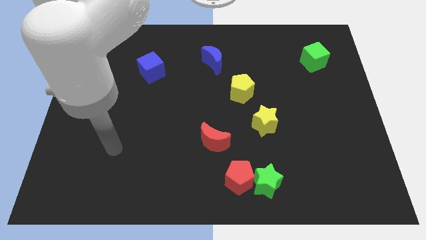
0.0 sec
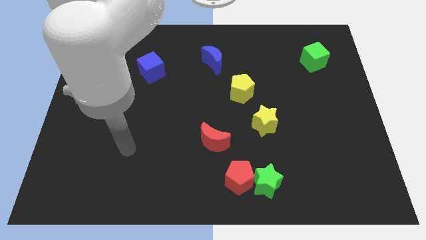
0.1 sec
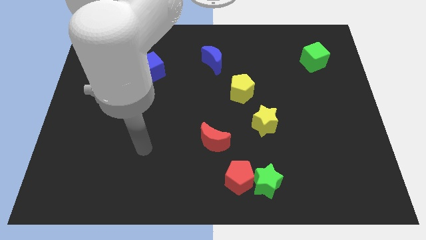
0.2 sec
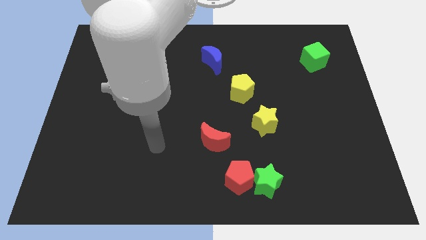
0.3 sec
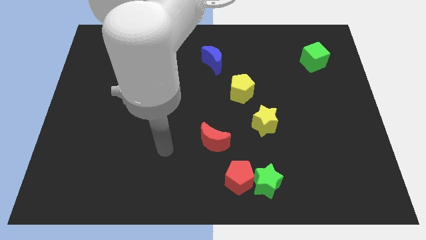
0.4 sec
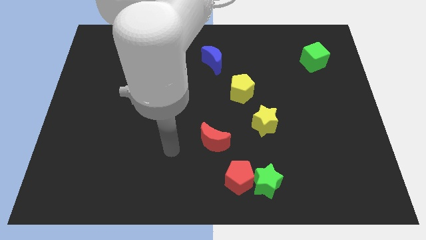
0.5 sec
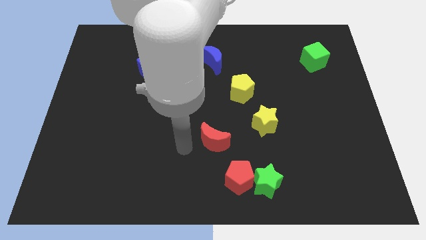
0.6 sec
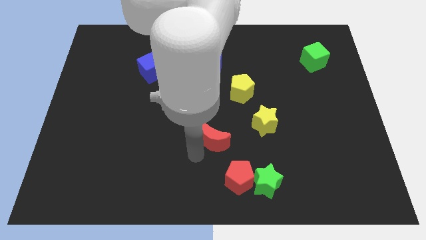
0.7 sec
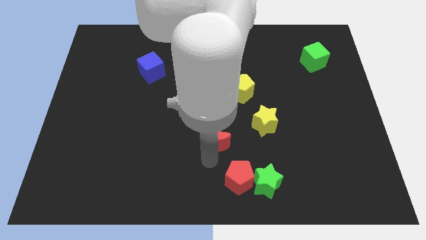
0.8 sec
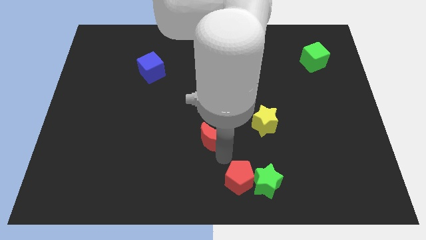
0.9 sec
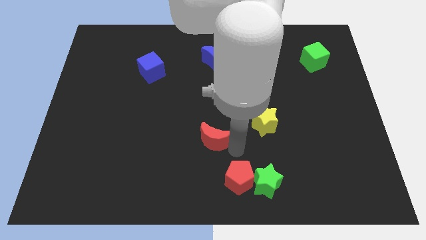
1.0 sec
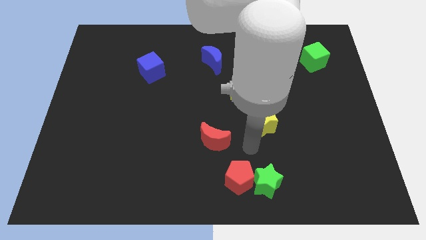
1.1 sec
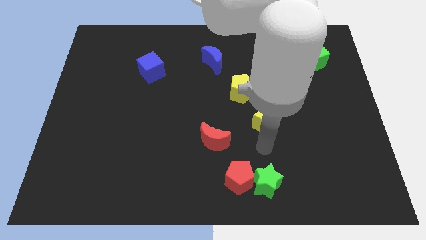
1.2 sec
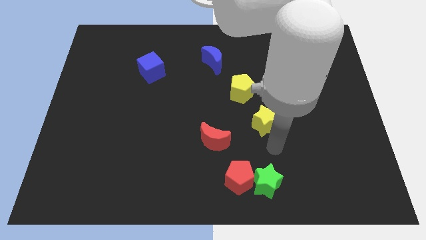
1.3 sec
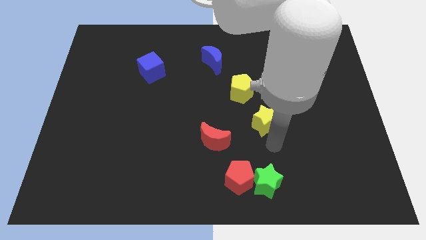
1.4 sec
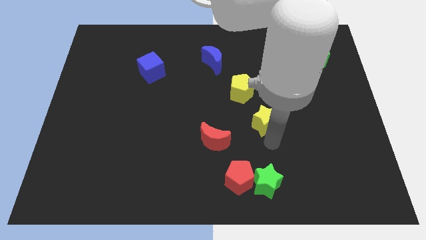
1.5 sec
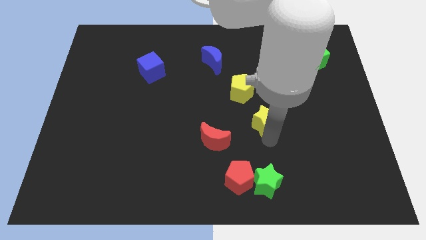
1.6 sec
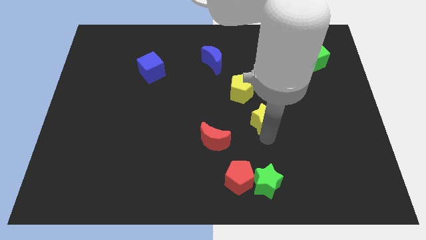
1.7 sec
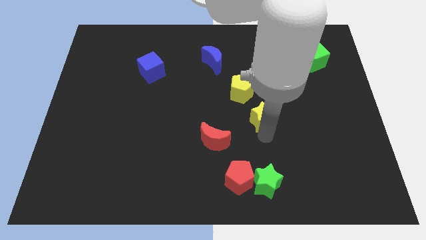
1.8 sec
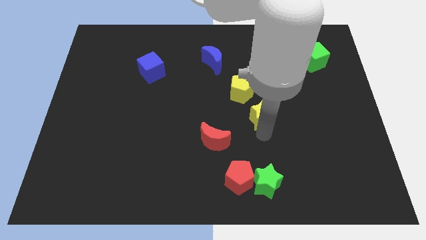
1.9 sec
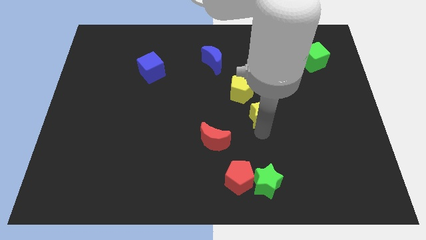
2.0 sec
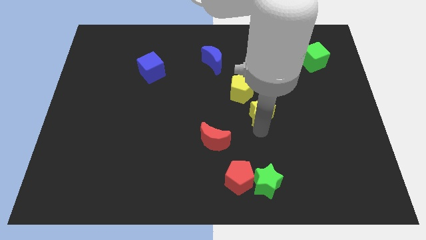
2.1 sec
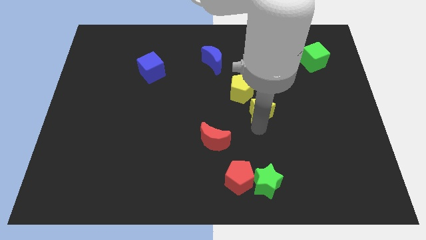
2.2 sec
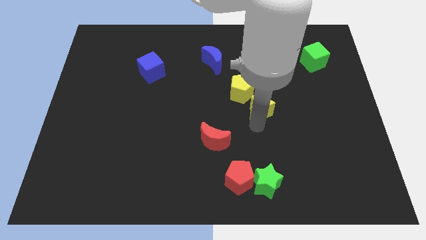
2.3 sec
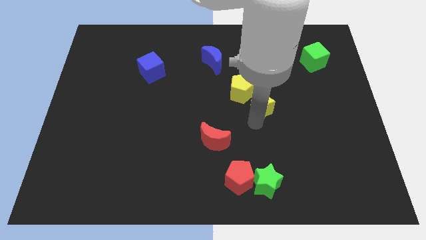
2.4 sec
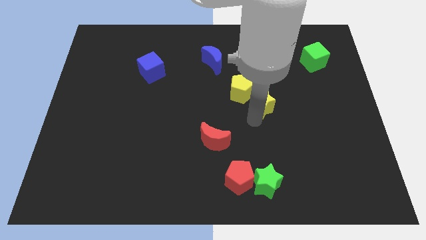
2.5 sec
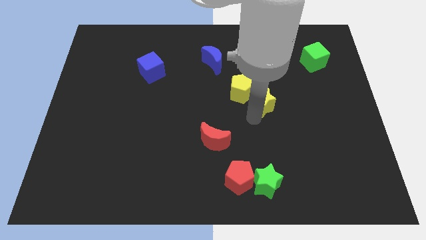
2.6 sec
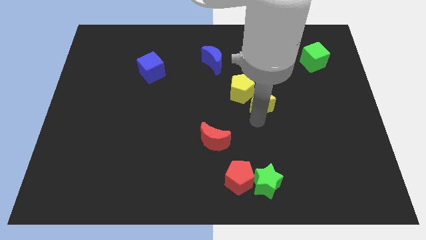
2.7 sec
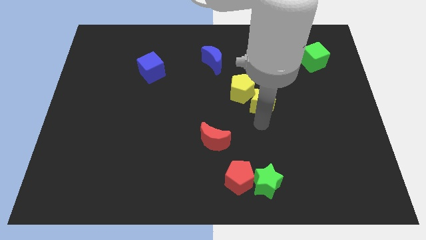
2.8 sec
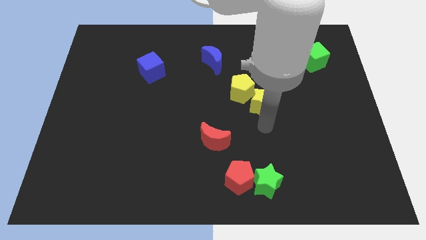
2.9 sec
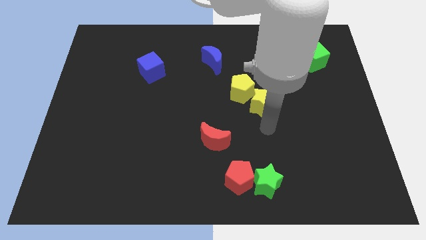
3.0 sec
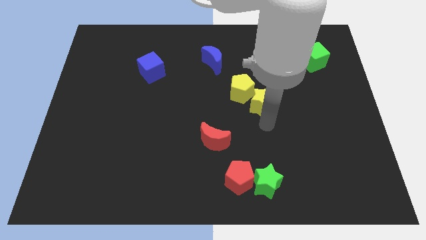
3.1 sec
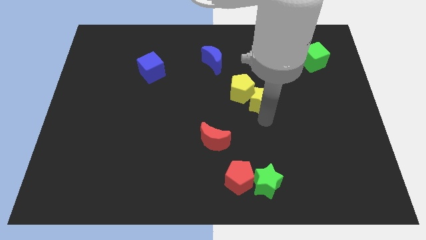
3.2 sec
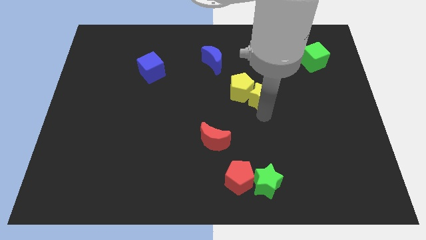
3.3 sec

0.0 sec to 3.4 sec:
slide the yellow star somewhat upwards

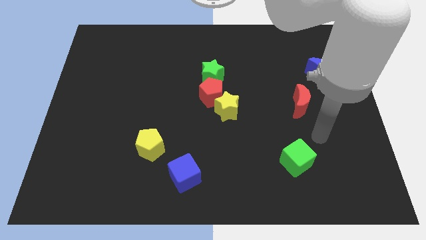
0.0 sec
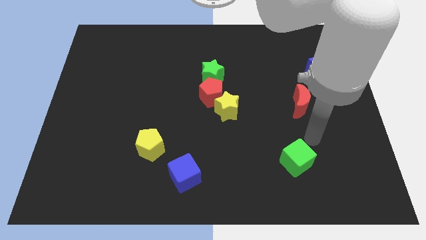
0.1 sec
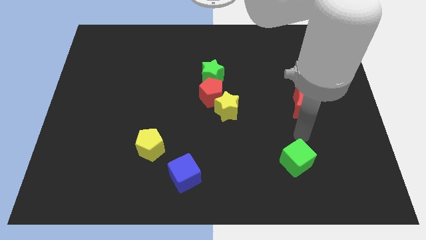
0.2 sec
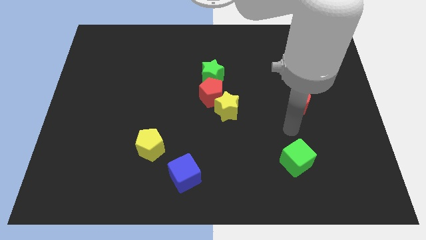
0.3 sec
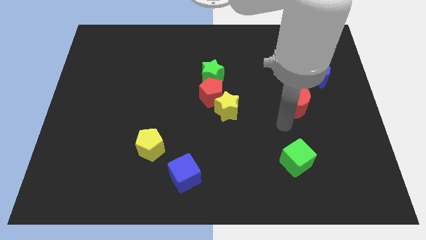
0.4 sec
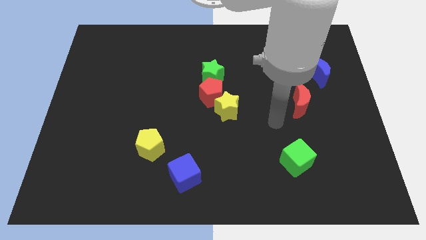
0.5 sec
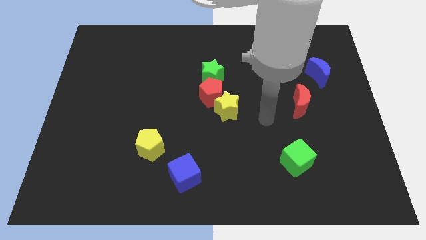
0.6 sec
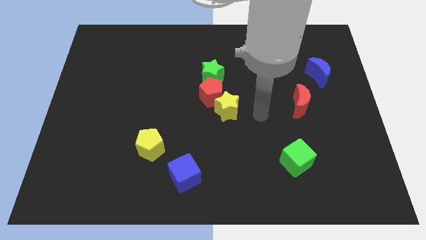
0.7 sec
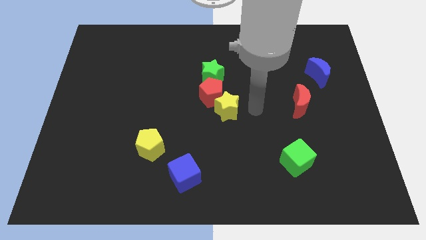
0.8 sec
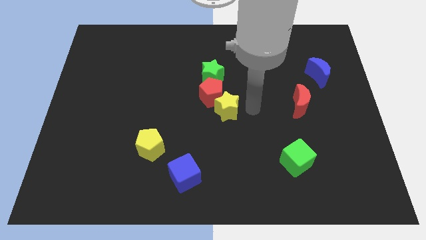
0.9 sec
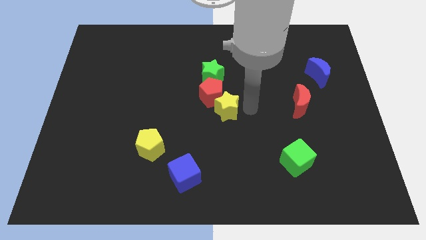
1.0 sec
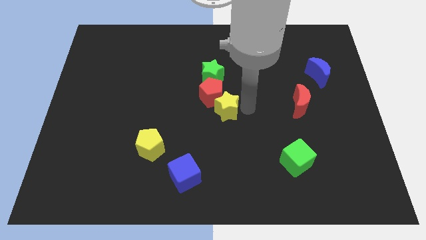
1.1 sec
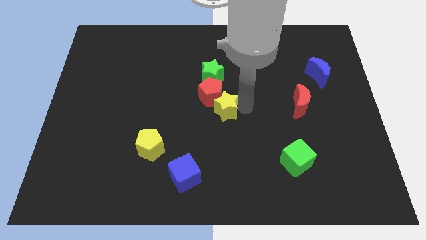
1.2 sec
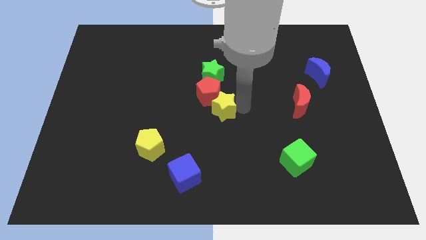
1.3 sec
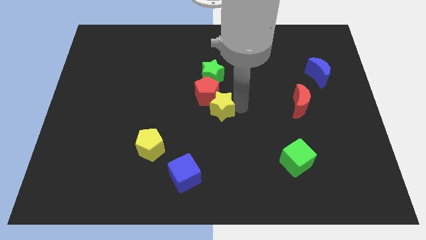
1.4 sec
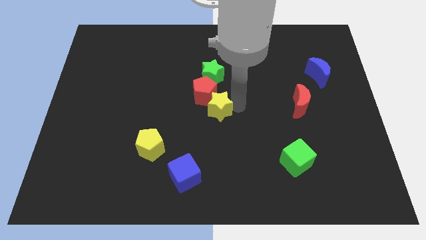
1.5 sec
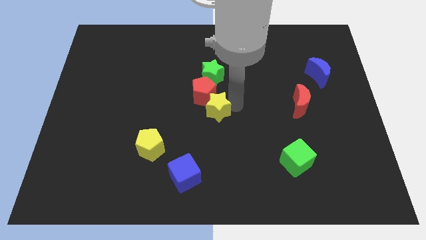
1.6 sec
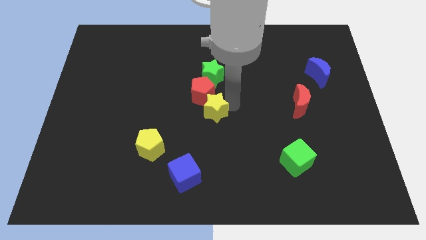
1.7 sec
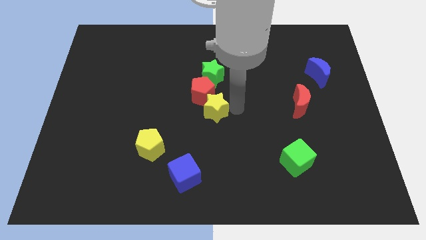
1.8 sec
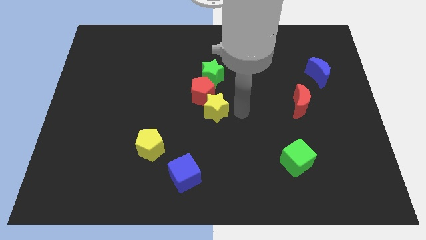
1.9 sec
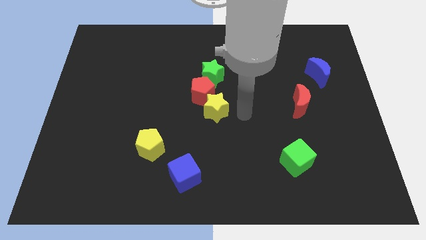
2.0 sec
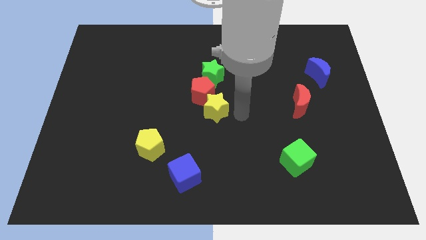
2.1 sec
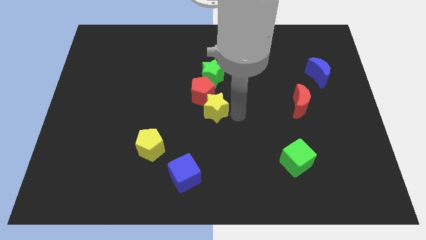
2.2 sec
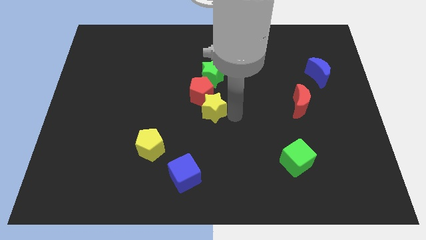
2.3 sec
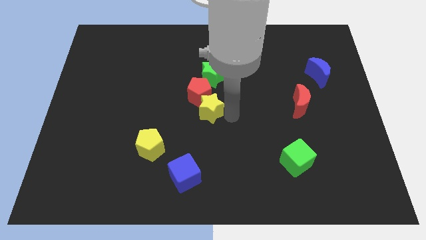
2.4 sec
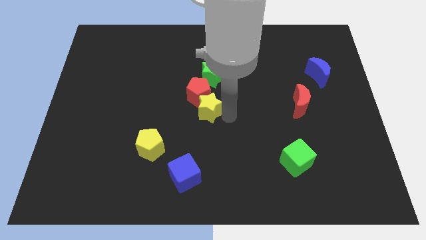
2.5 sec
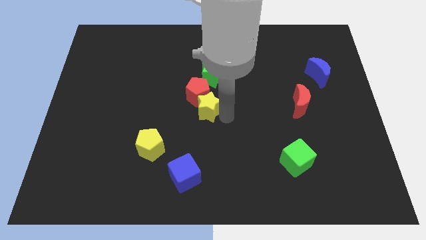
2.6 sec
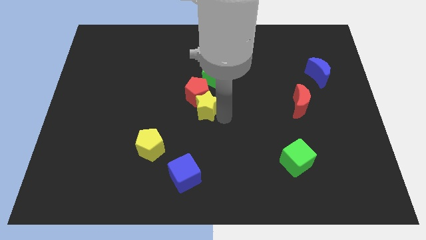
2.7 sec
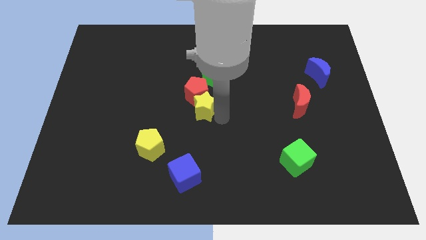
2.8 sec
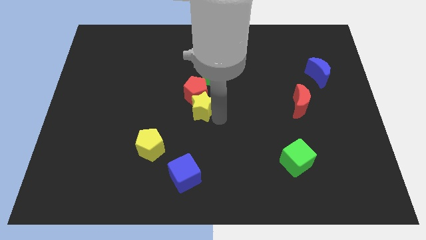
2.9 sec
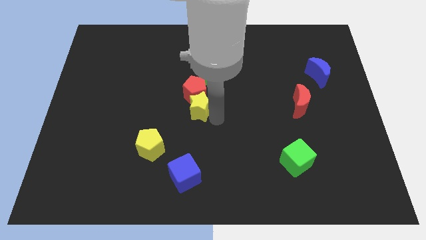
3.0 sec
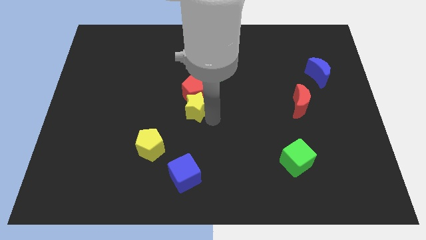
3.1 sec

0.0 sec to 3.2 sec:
slide the yellow star a bit to the left

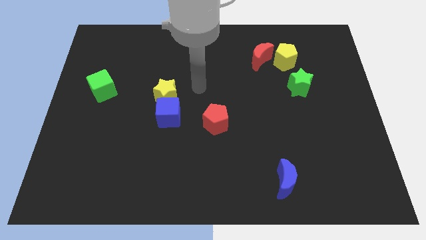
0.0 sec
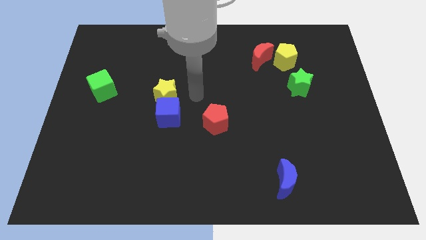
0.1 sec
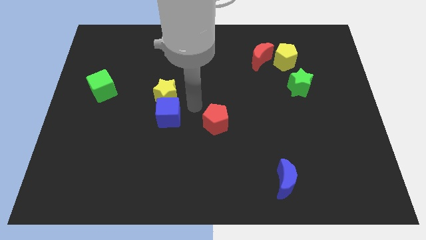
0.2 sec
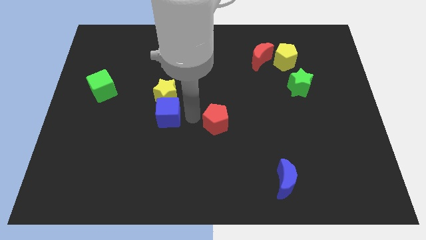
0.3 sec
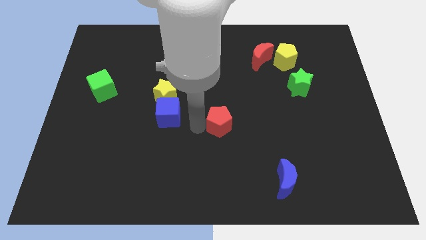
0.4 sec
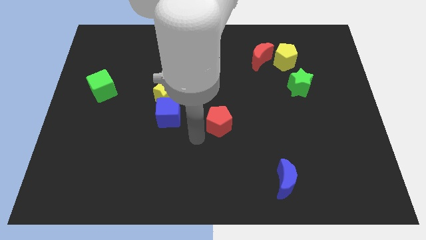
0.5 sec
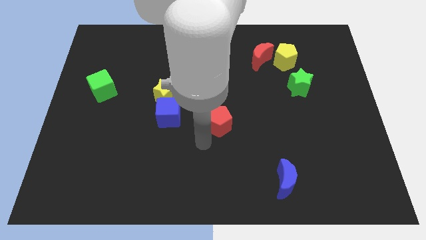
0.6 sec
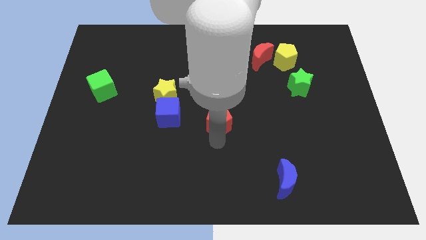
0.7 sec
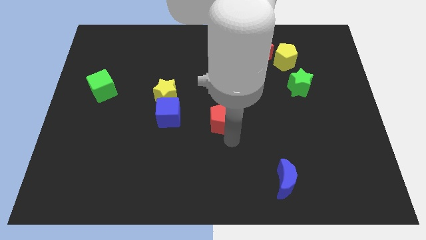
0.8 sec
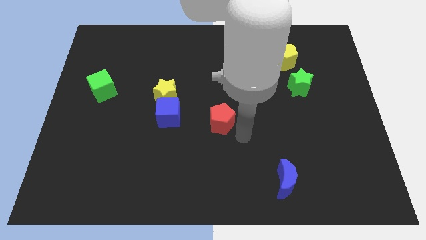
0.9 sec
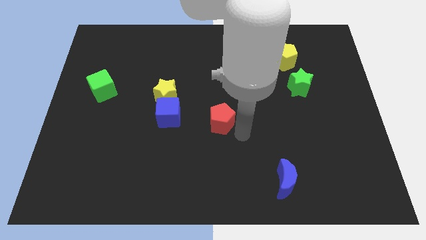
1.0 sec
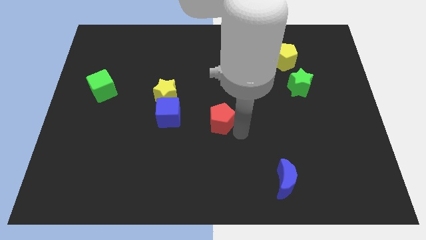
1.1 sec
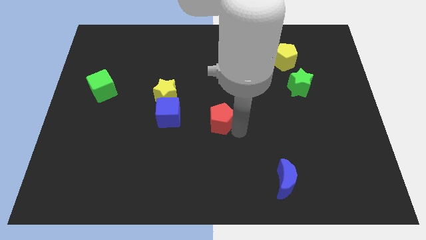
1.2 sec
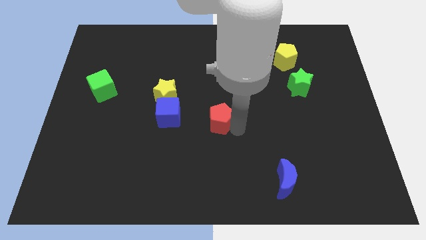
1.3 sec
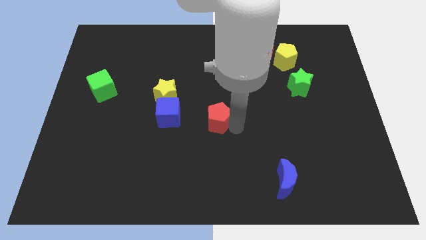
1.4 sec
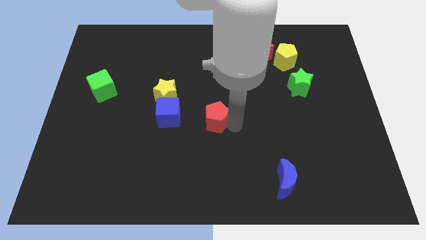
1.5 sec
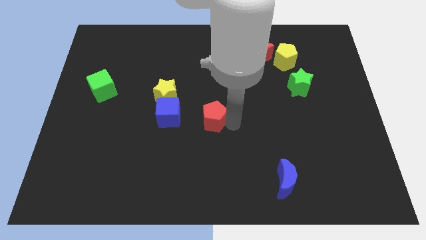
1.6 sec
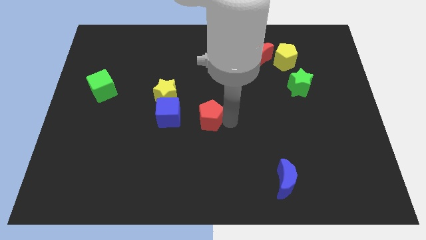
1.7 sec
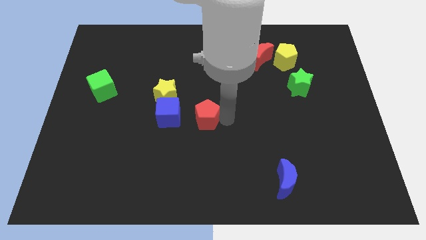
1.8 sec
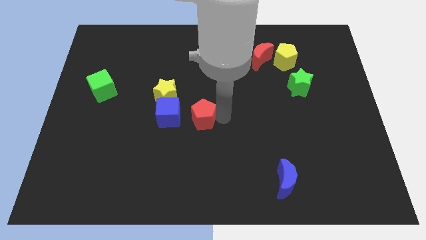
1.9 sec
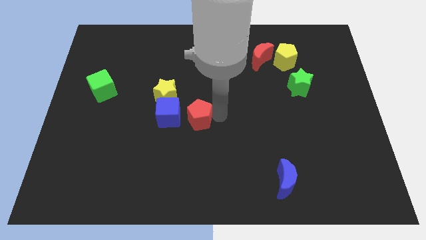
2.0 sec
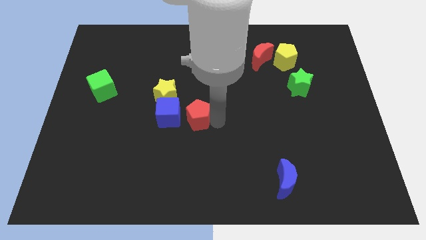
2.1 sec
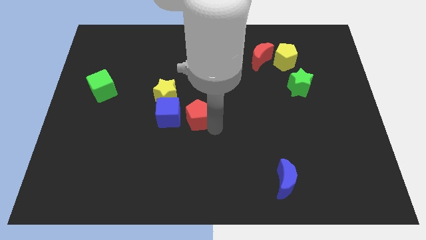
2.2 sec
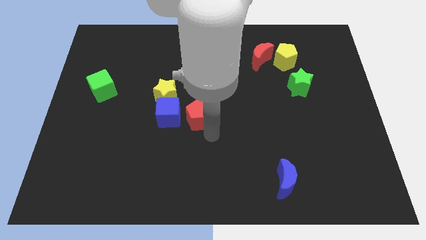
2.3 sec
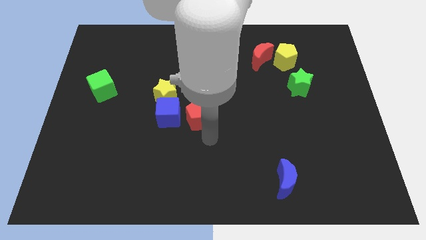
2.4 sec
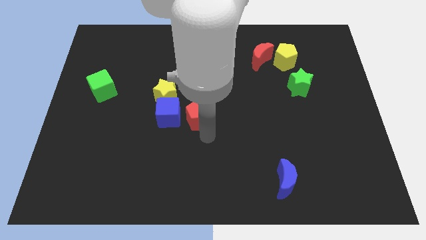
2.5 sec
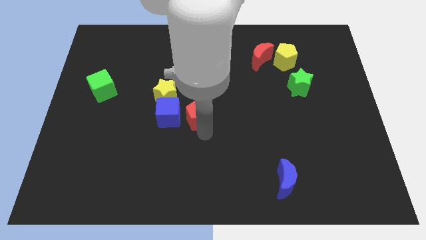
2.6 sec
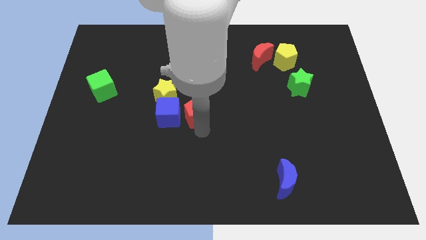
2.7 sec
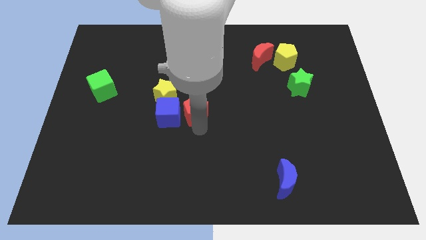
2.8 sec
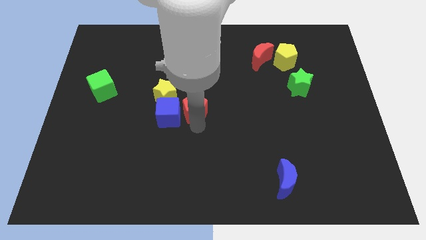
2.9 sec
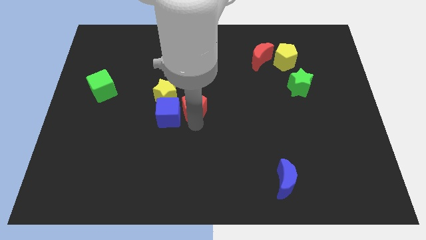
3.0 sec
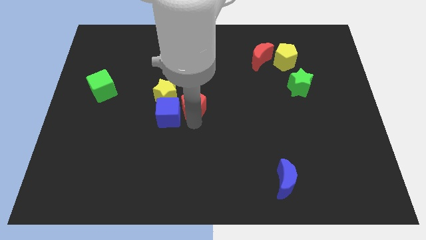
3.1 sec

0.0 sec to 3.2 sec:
slightly push the red pentagon upwards and then to the left
